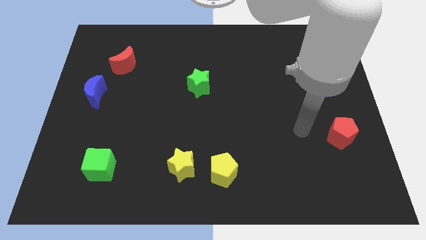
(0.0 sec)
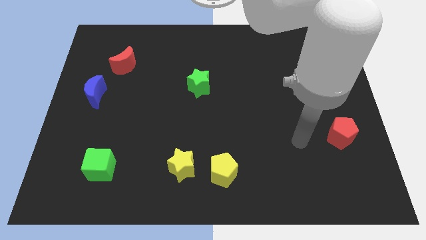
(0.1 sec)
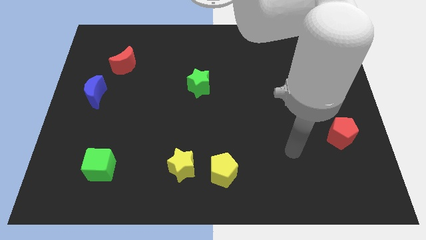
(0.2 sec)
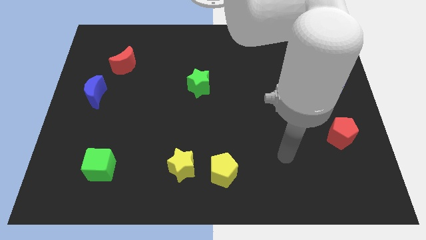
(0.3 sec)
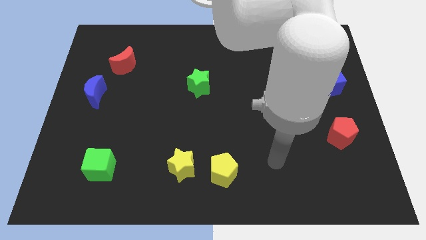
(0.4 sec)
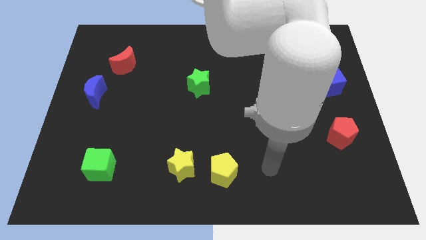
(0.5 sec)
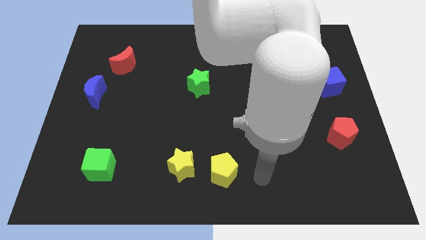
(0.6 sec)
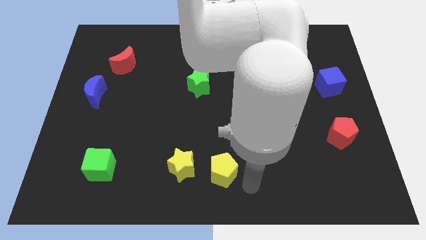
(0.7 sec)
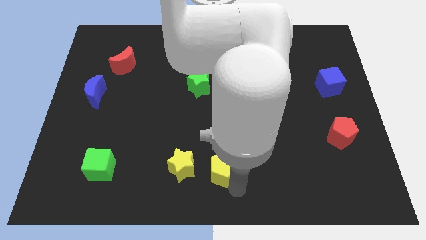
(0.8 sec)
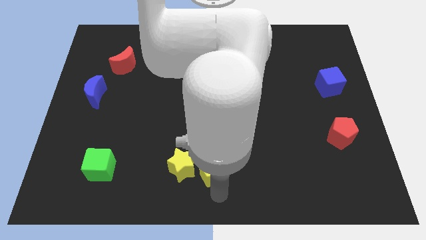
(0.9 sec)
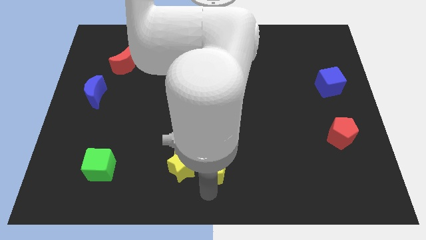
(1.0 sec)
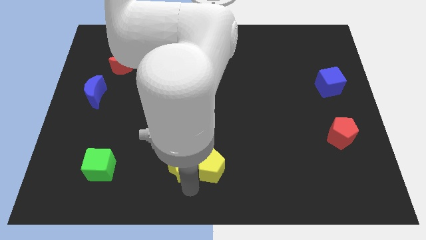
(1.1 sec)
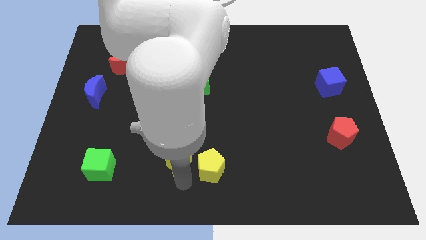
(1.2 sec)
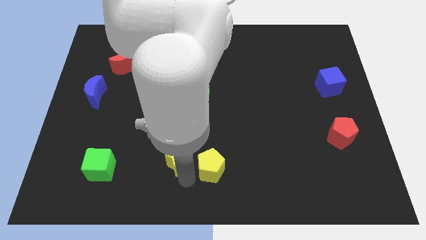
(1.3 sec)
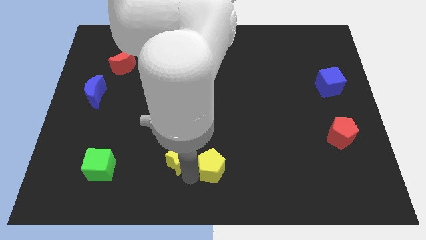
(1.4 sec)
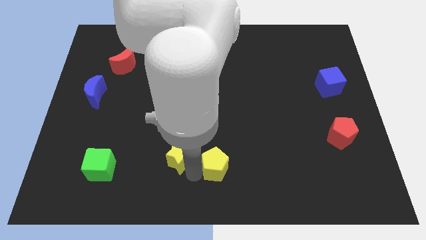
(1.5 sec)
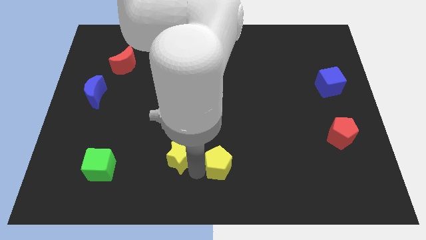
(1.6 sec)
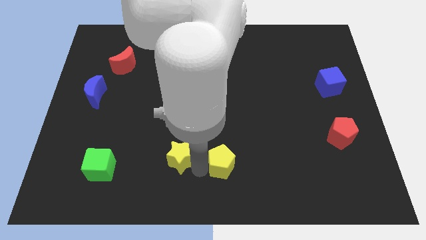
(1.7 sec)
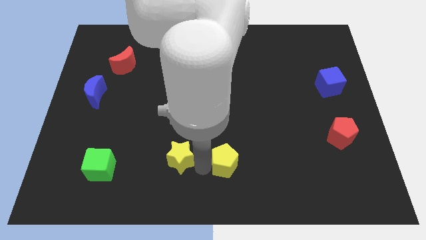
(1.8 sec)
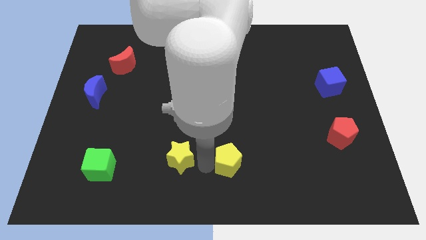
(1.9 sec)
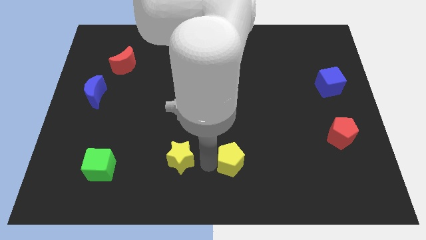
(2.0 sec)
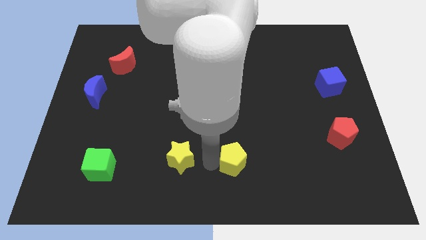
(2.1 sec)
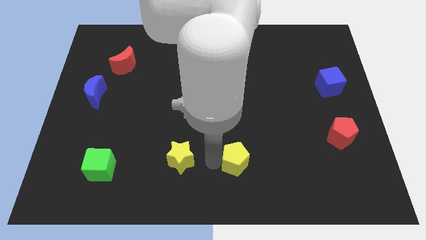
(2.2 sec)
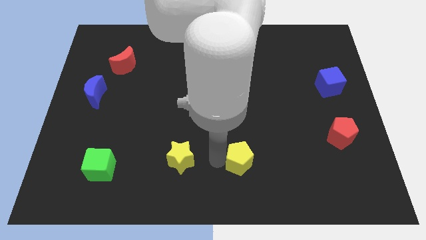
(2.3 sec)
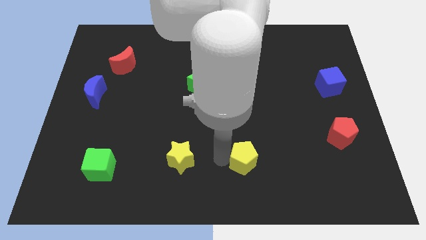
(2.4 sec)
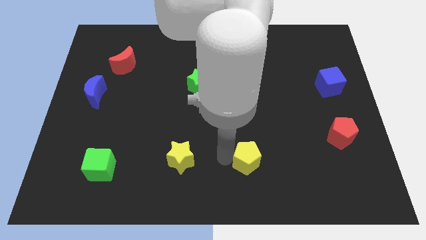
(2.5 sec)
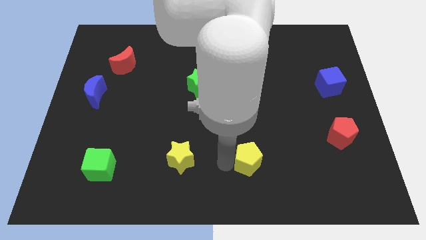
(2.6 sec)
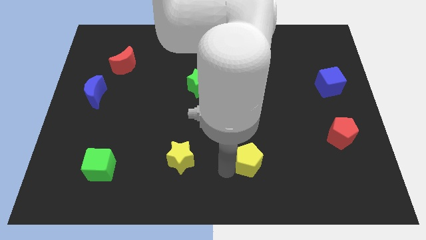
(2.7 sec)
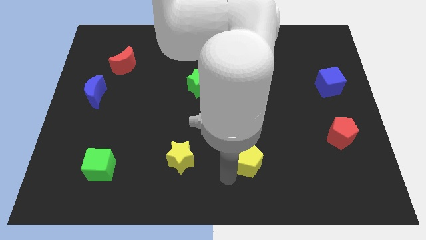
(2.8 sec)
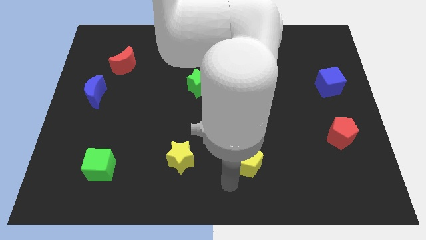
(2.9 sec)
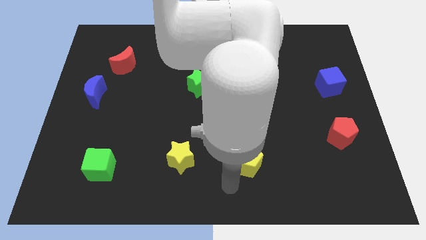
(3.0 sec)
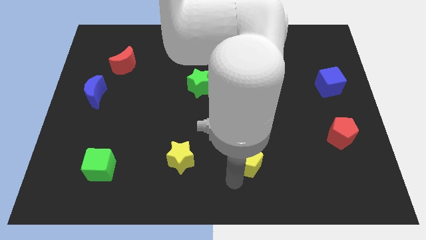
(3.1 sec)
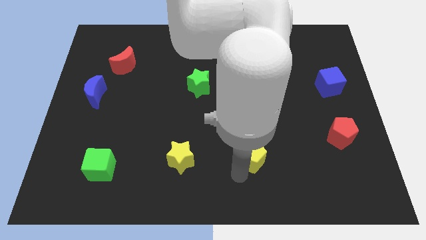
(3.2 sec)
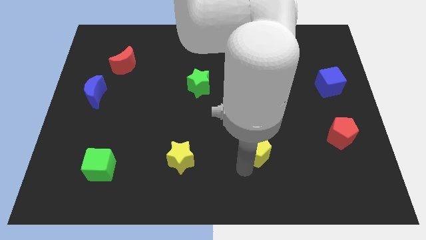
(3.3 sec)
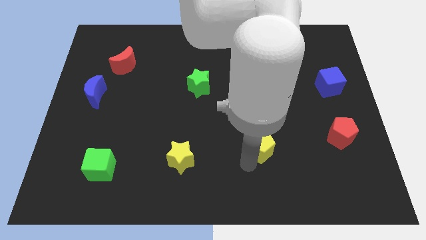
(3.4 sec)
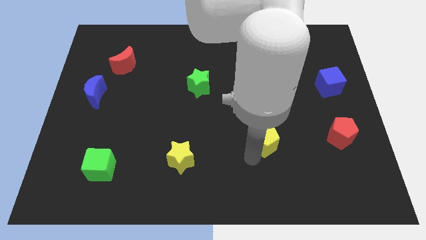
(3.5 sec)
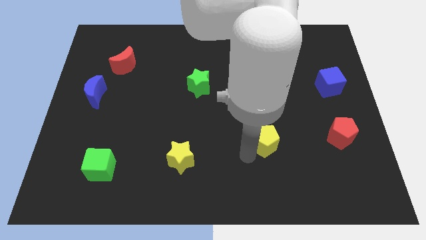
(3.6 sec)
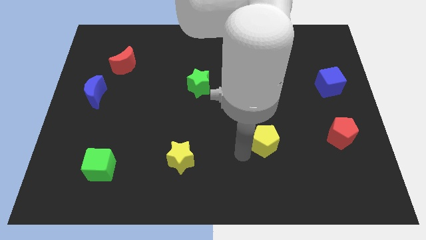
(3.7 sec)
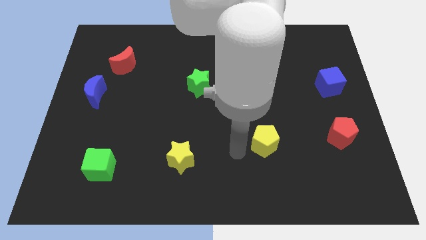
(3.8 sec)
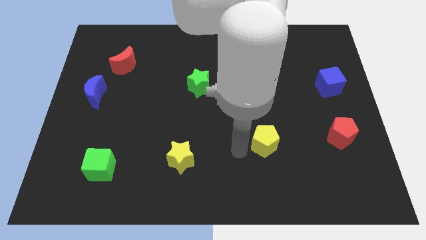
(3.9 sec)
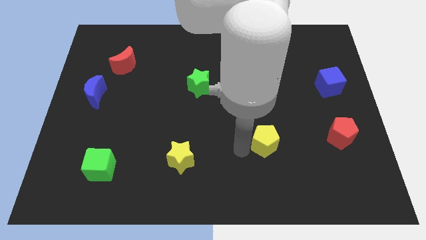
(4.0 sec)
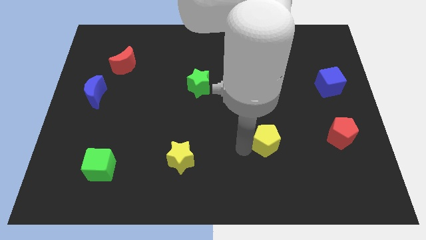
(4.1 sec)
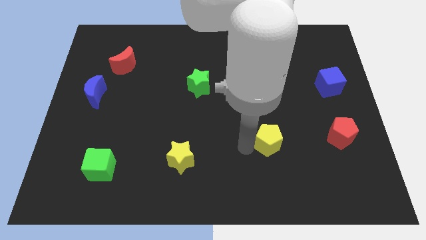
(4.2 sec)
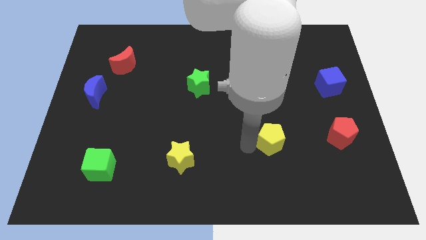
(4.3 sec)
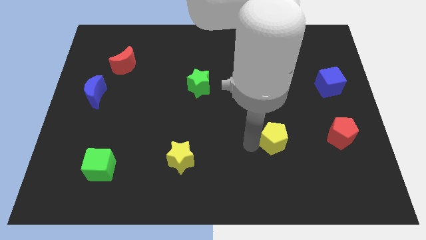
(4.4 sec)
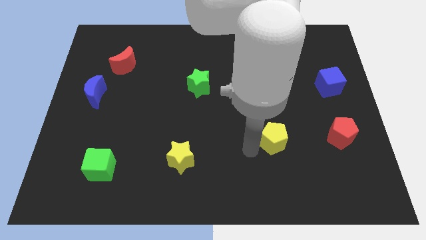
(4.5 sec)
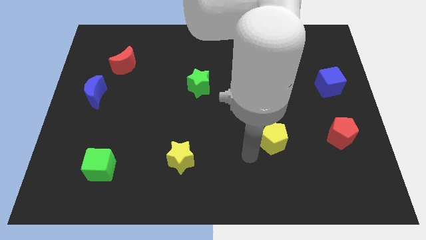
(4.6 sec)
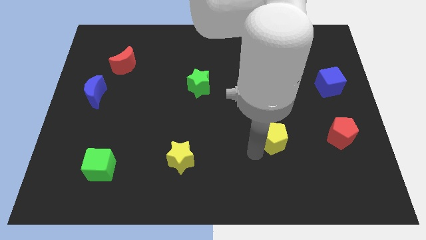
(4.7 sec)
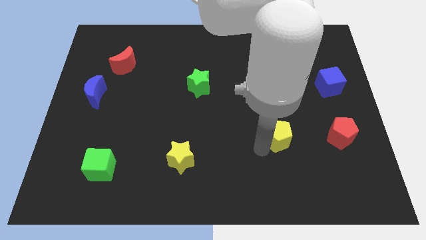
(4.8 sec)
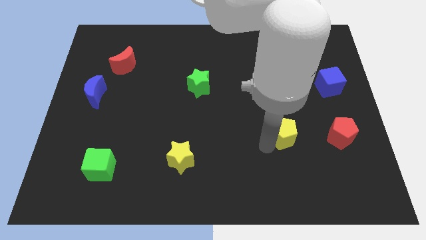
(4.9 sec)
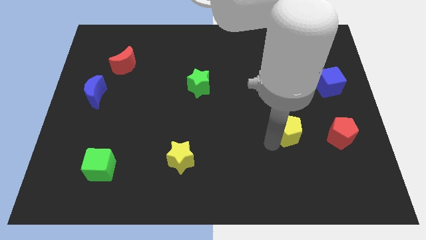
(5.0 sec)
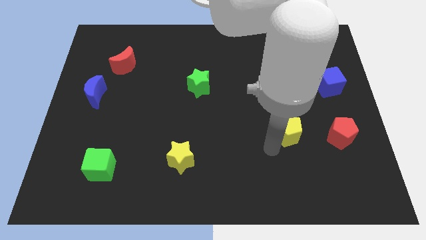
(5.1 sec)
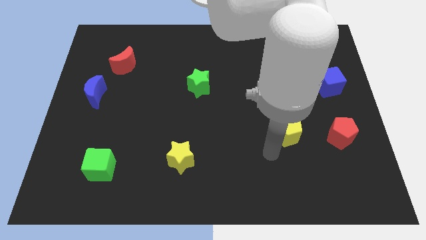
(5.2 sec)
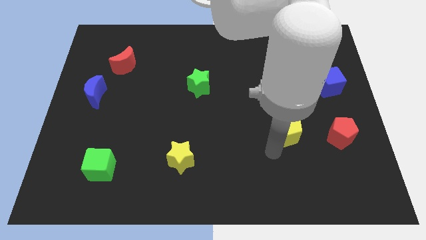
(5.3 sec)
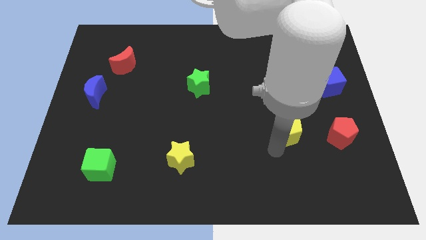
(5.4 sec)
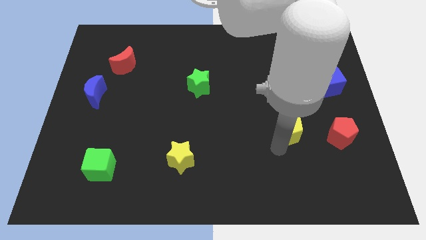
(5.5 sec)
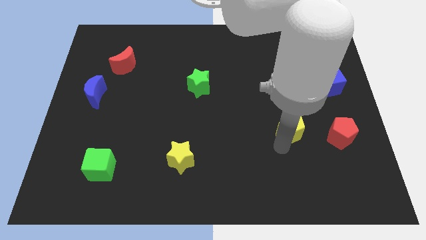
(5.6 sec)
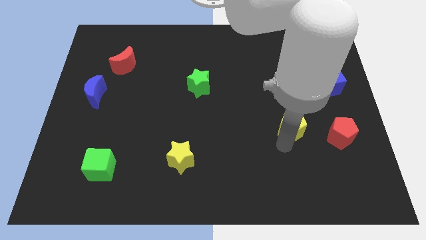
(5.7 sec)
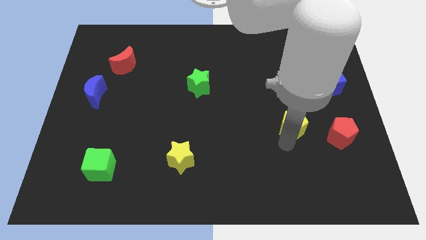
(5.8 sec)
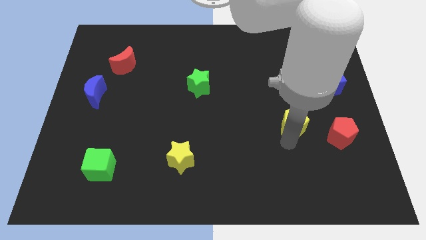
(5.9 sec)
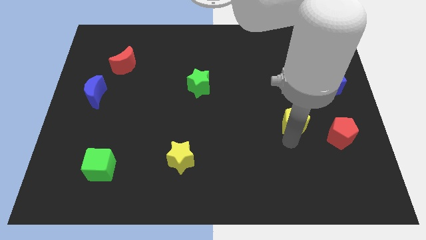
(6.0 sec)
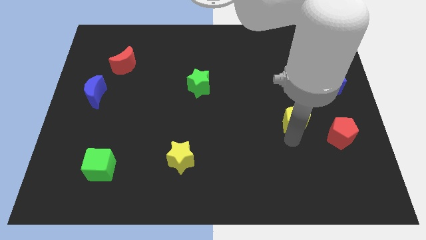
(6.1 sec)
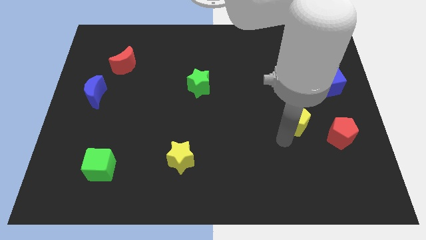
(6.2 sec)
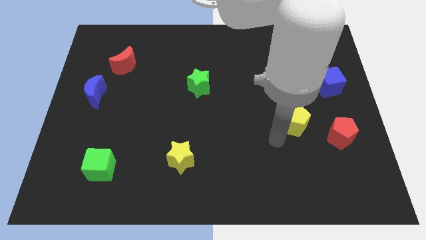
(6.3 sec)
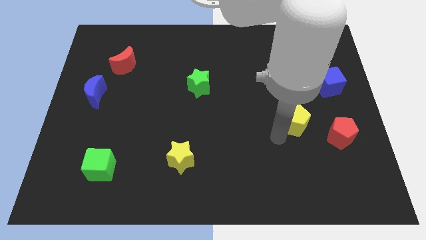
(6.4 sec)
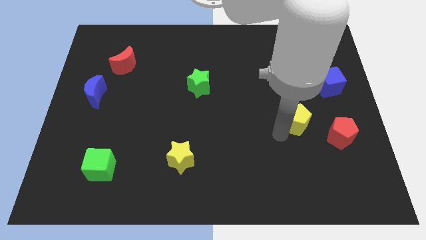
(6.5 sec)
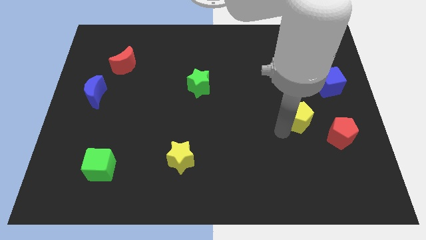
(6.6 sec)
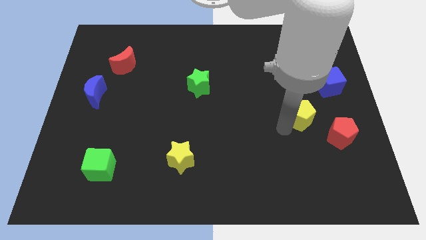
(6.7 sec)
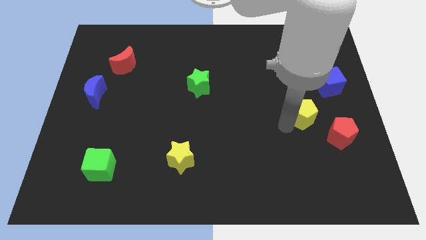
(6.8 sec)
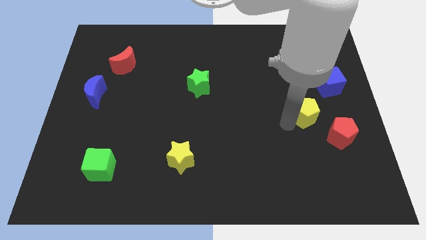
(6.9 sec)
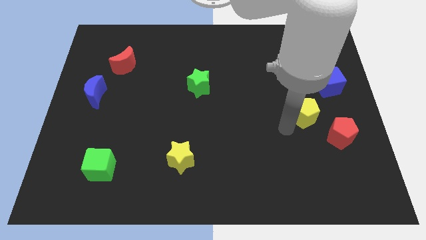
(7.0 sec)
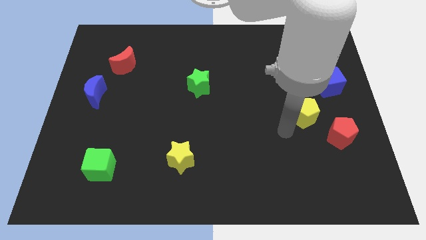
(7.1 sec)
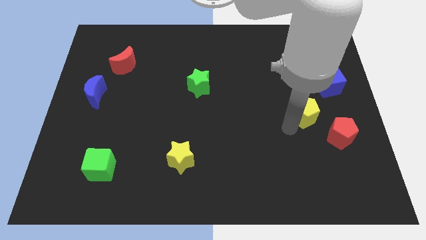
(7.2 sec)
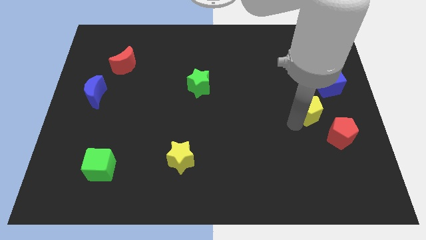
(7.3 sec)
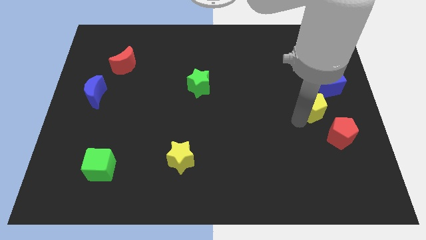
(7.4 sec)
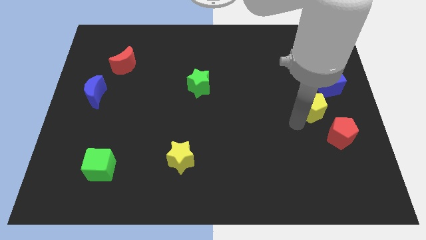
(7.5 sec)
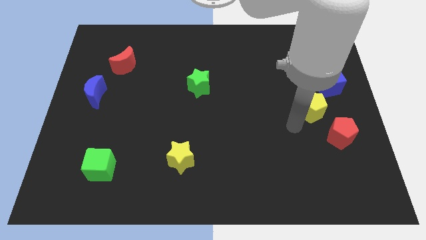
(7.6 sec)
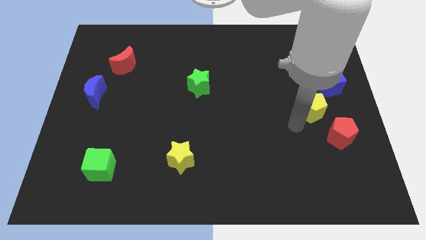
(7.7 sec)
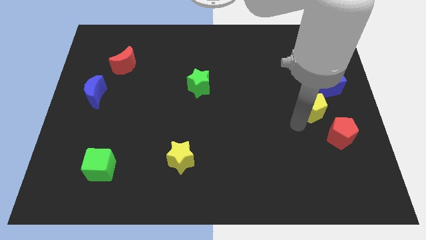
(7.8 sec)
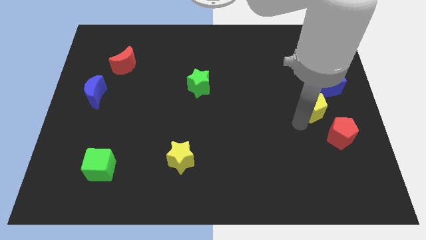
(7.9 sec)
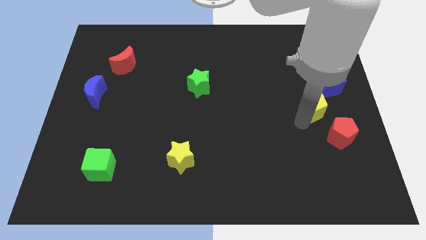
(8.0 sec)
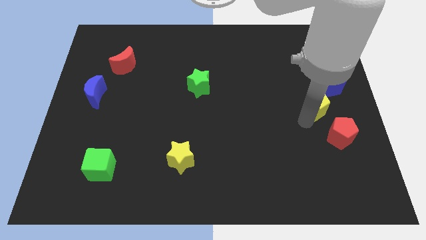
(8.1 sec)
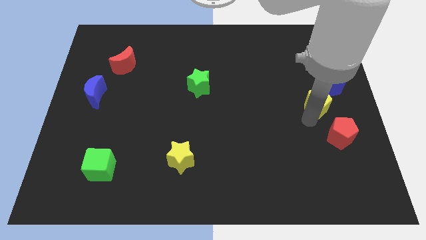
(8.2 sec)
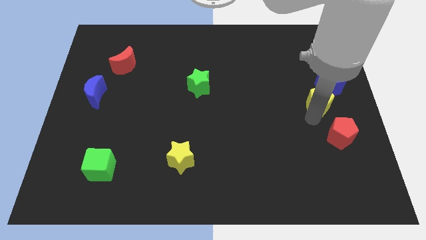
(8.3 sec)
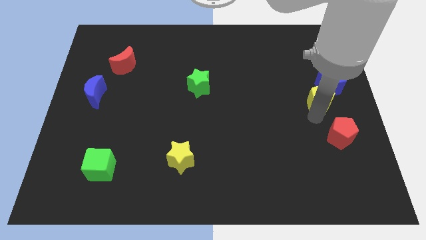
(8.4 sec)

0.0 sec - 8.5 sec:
put the yellow pentagon to the blue cube
